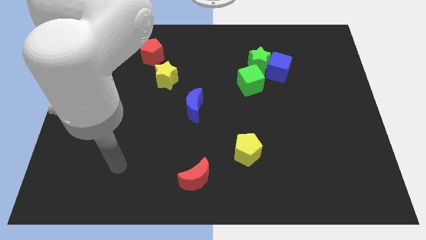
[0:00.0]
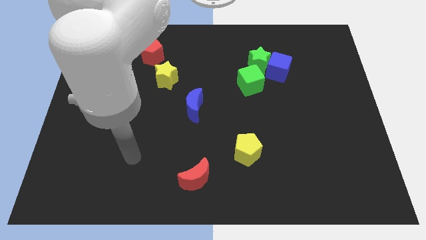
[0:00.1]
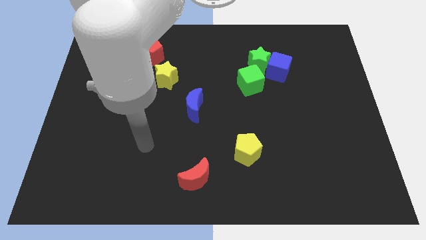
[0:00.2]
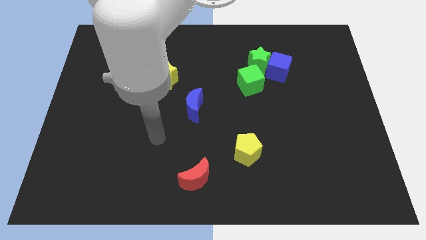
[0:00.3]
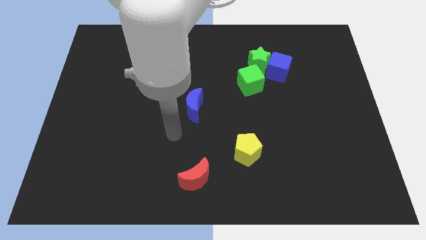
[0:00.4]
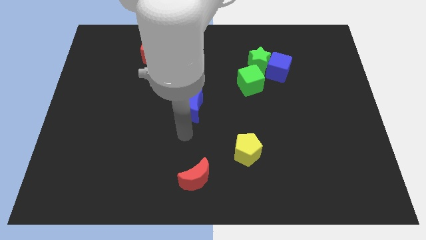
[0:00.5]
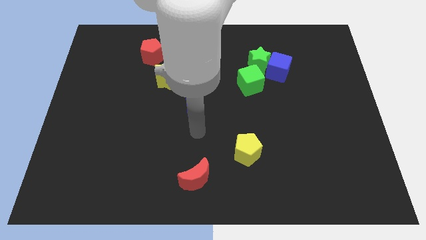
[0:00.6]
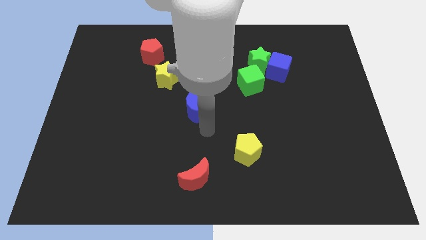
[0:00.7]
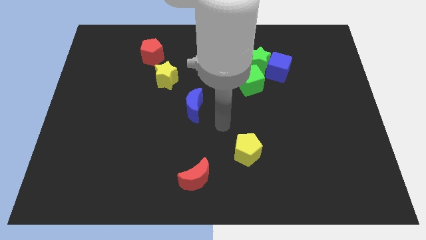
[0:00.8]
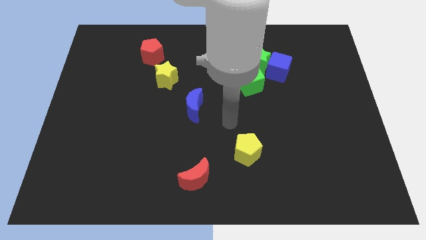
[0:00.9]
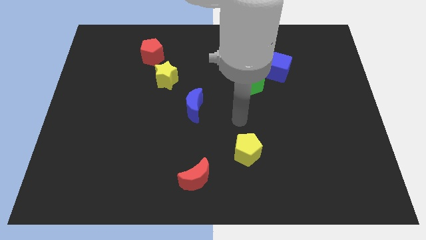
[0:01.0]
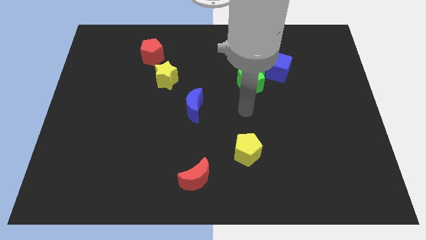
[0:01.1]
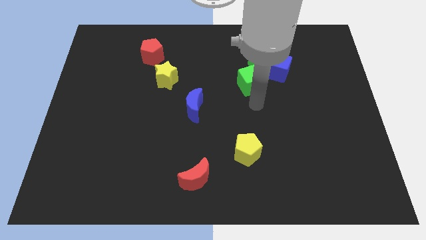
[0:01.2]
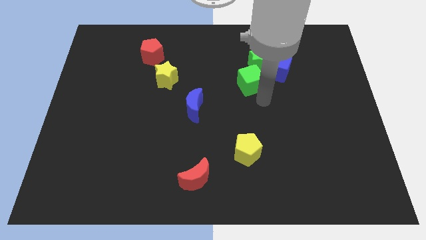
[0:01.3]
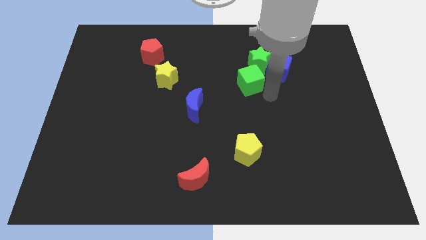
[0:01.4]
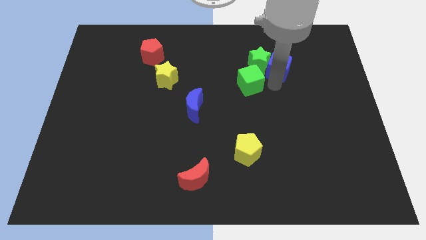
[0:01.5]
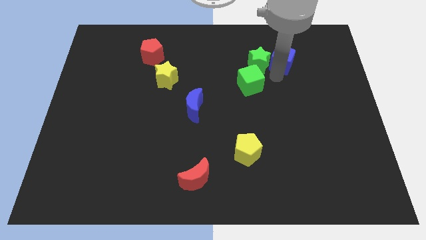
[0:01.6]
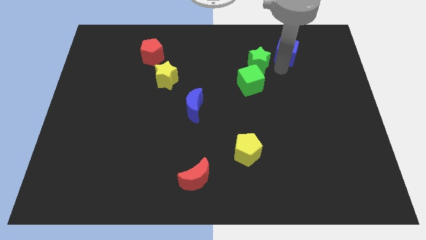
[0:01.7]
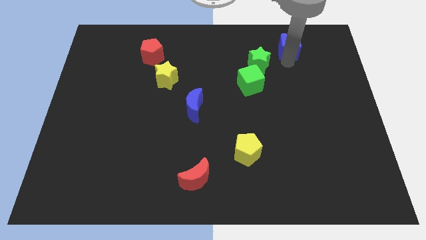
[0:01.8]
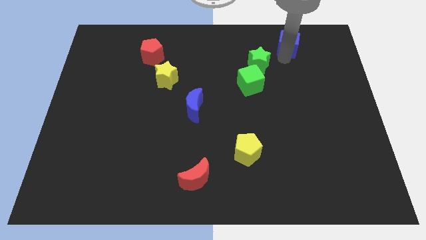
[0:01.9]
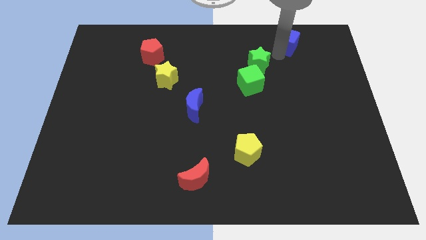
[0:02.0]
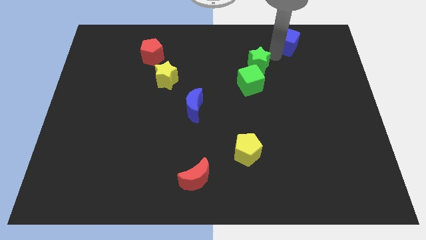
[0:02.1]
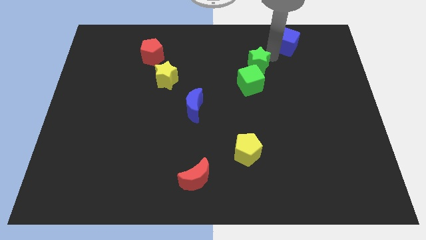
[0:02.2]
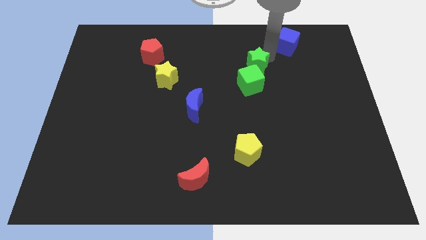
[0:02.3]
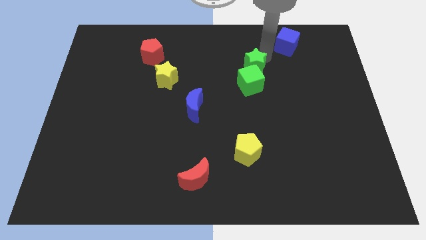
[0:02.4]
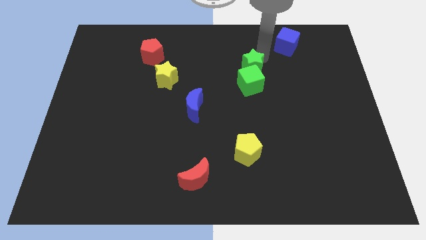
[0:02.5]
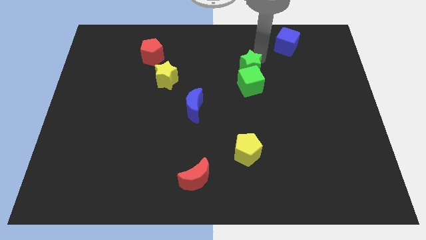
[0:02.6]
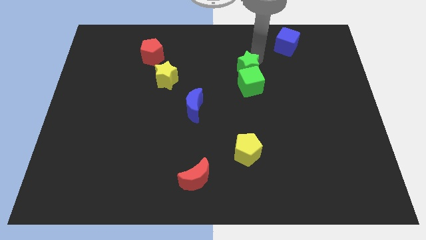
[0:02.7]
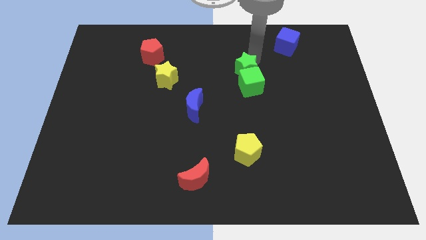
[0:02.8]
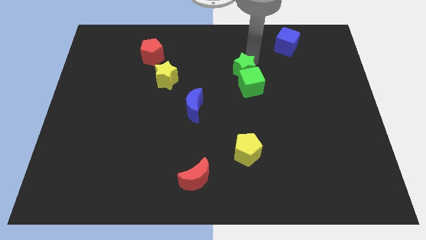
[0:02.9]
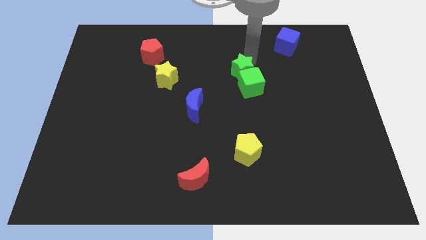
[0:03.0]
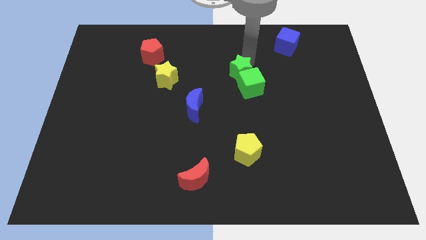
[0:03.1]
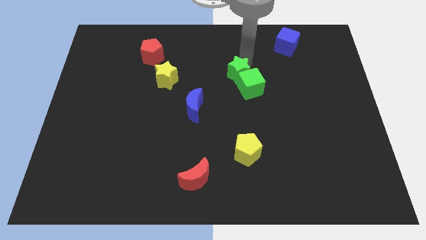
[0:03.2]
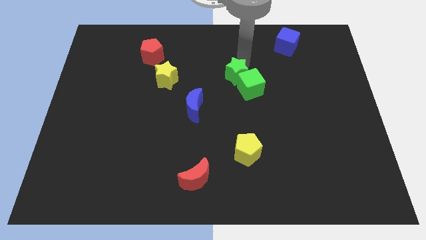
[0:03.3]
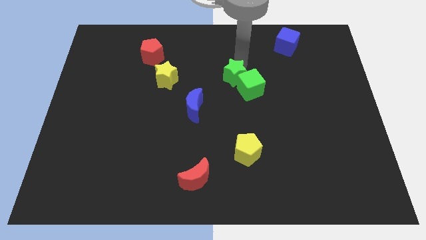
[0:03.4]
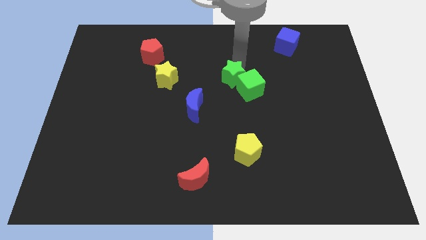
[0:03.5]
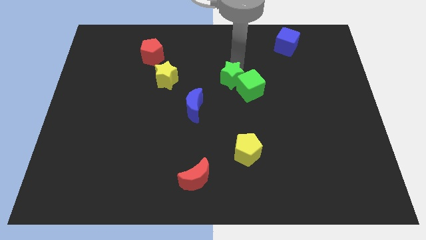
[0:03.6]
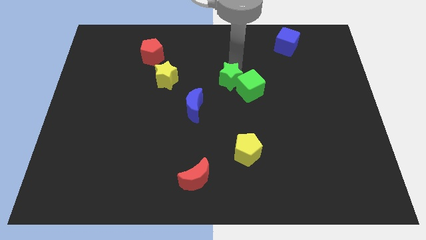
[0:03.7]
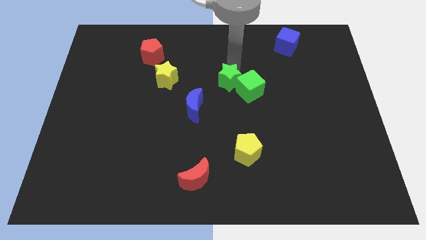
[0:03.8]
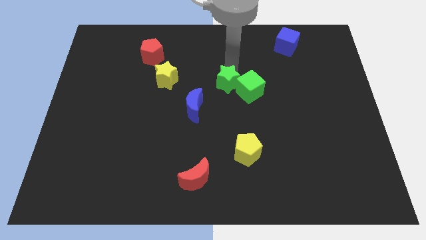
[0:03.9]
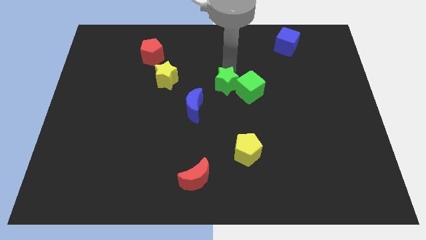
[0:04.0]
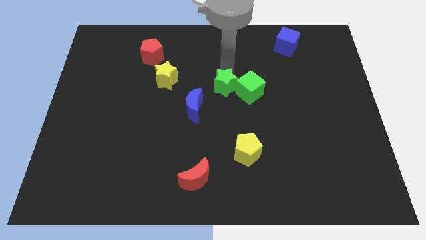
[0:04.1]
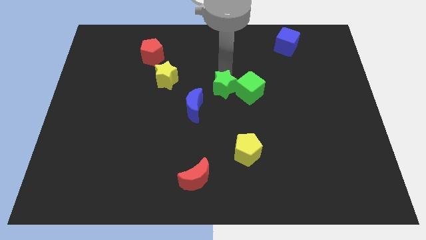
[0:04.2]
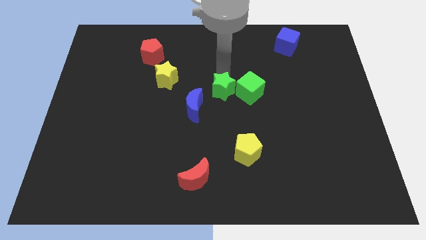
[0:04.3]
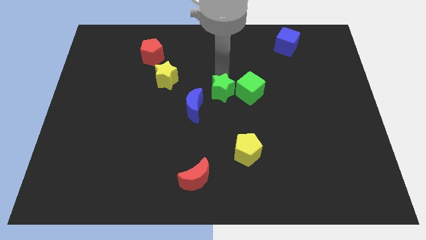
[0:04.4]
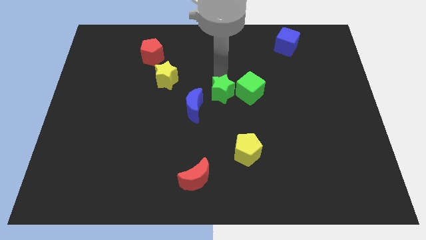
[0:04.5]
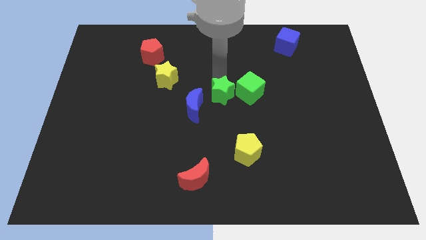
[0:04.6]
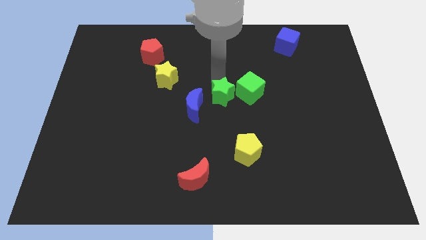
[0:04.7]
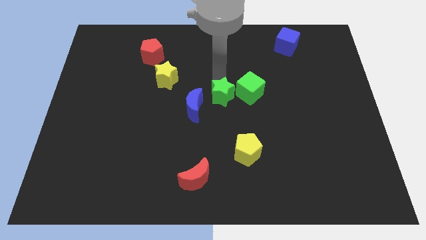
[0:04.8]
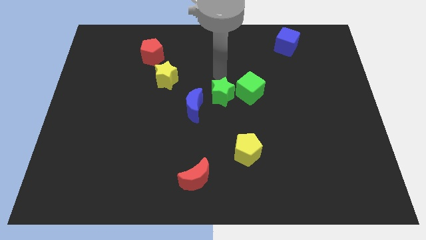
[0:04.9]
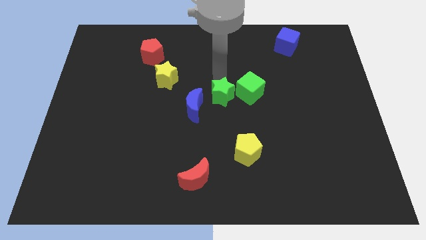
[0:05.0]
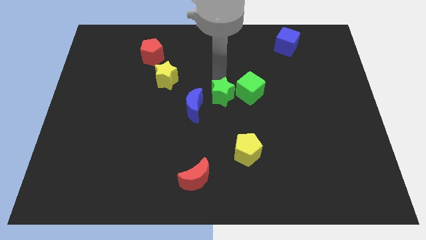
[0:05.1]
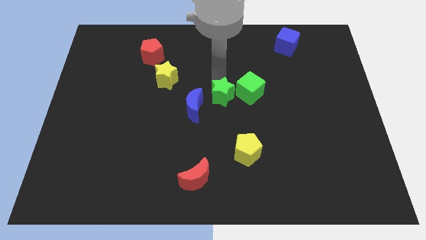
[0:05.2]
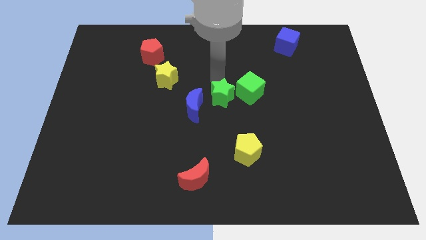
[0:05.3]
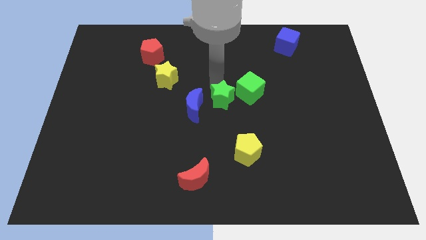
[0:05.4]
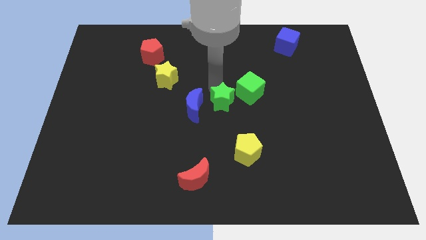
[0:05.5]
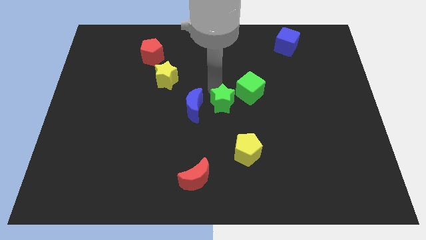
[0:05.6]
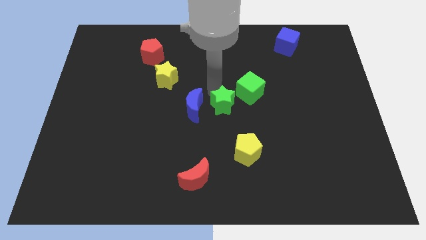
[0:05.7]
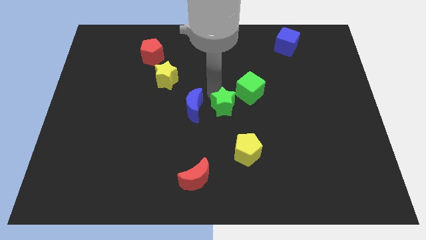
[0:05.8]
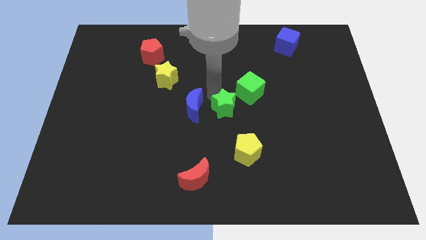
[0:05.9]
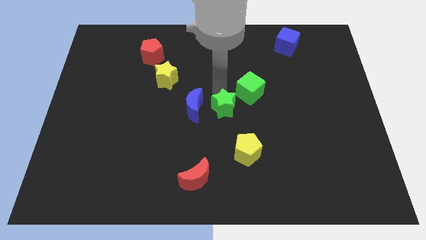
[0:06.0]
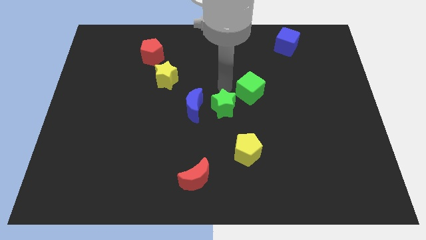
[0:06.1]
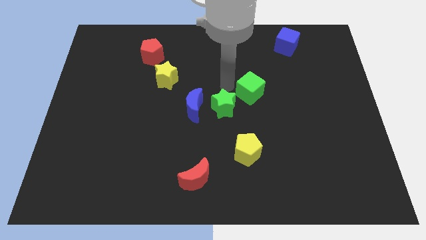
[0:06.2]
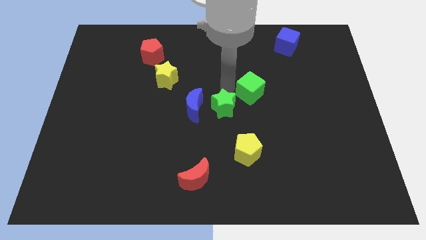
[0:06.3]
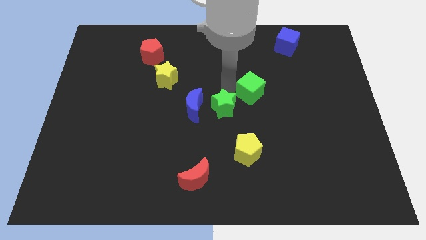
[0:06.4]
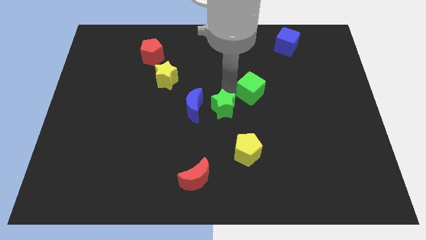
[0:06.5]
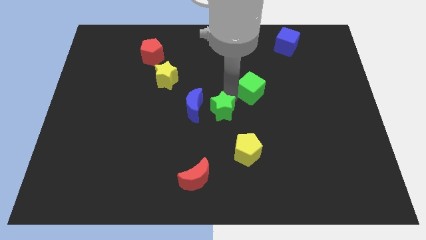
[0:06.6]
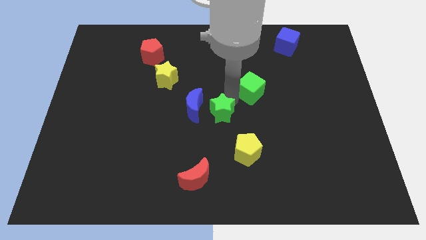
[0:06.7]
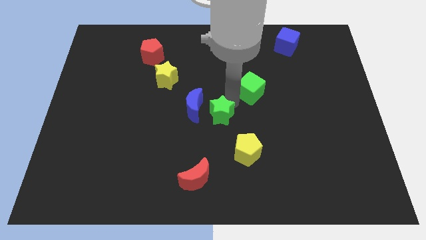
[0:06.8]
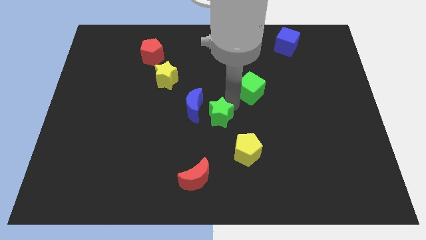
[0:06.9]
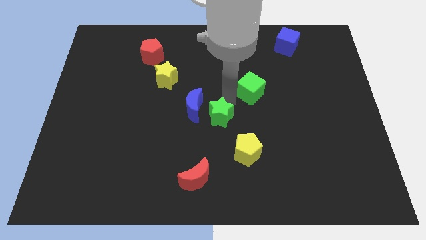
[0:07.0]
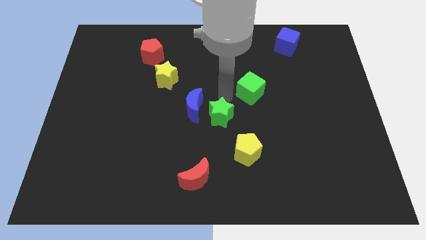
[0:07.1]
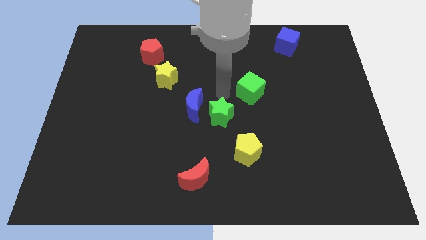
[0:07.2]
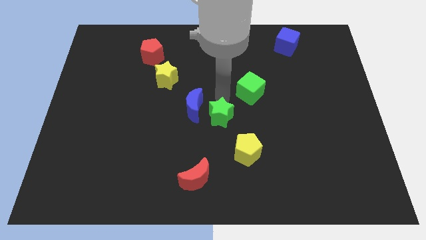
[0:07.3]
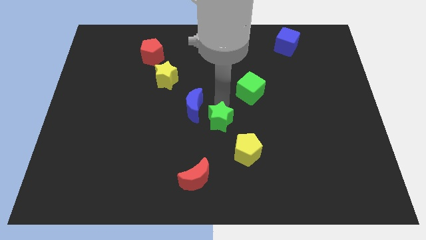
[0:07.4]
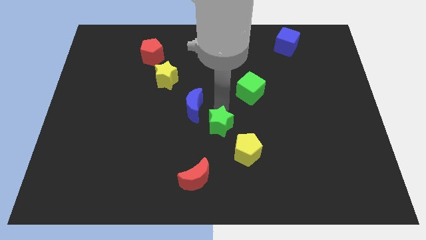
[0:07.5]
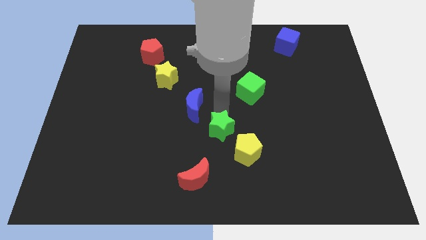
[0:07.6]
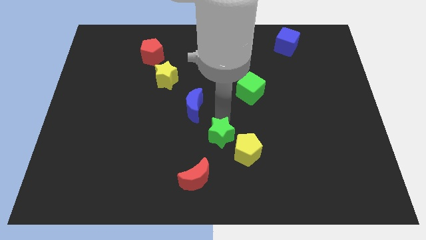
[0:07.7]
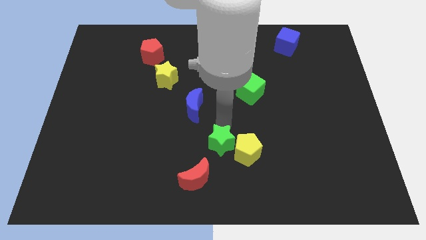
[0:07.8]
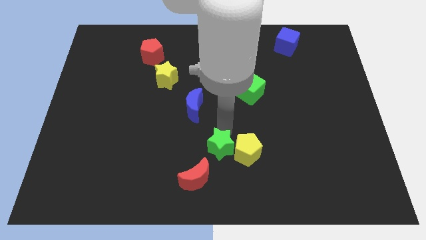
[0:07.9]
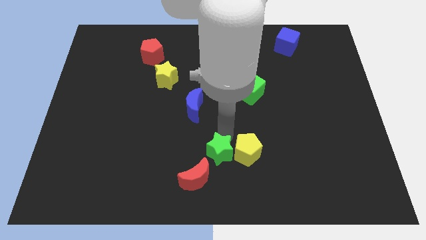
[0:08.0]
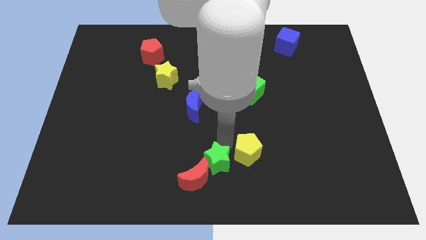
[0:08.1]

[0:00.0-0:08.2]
move the green star to the red moon
